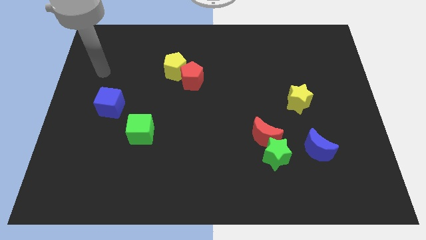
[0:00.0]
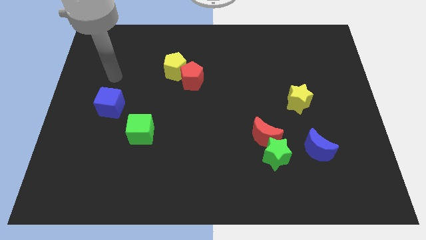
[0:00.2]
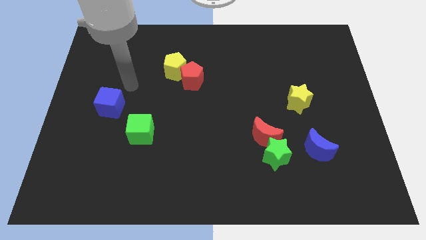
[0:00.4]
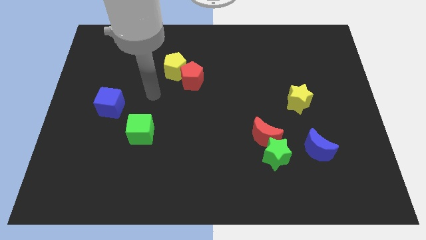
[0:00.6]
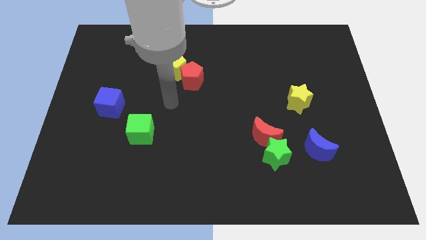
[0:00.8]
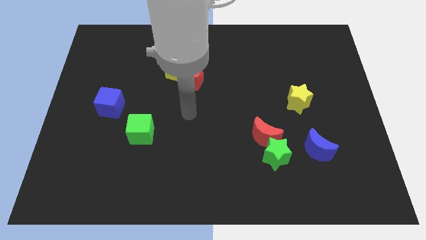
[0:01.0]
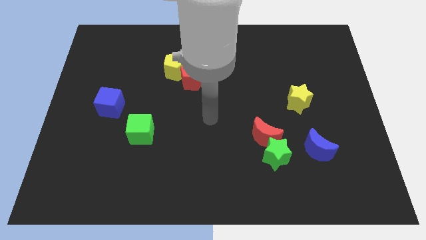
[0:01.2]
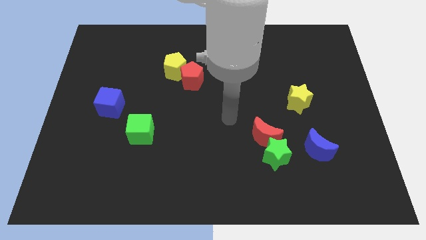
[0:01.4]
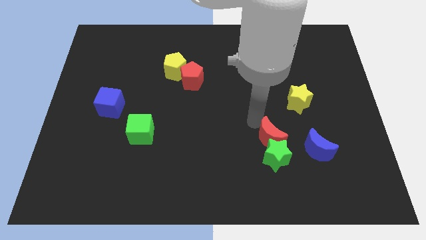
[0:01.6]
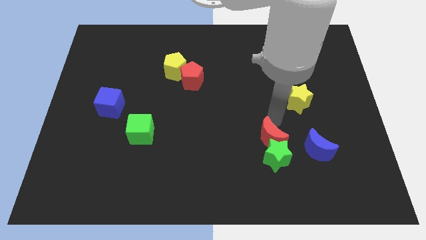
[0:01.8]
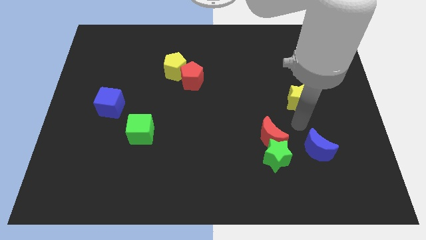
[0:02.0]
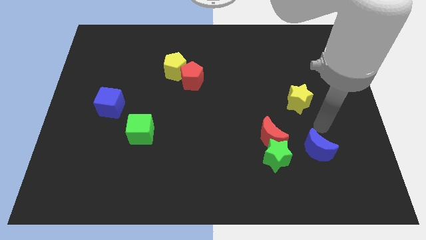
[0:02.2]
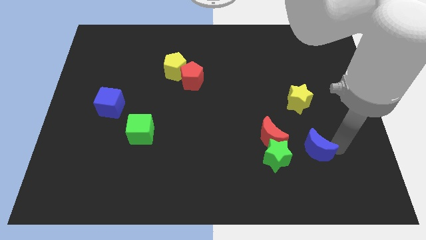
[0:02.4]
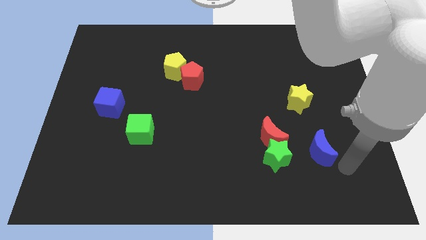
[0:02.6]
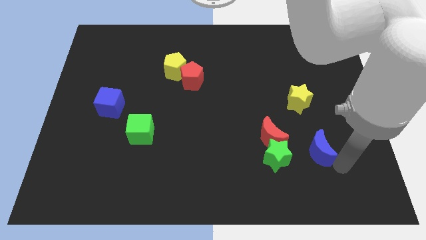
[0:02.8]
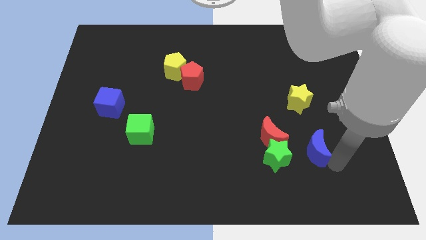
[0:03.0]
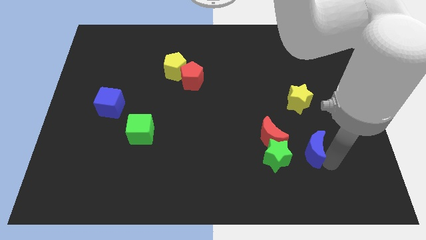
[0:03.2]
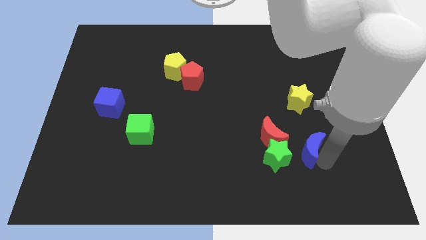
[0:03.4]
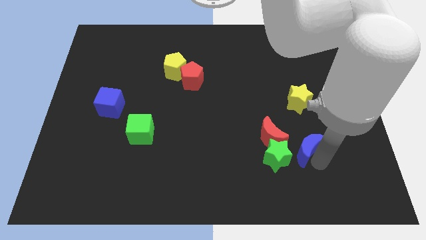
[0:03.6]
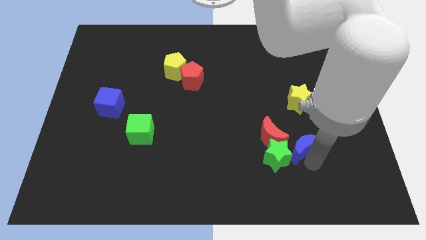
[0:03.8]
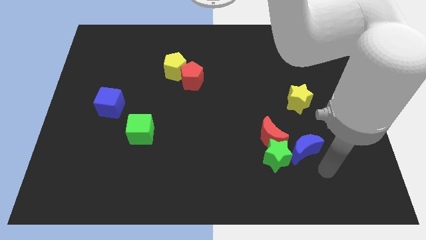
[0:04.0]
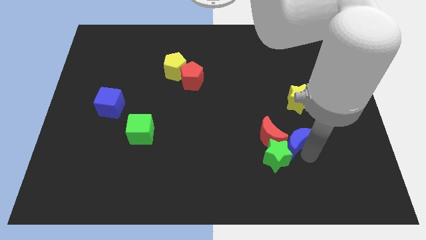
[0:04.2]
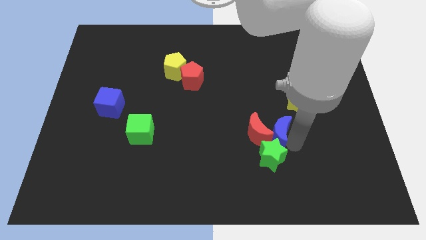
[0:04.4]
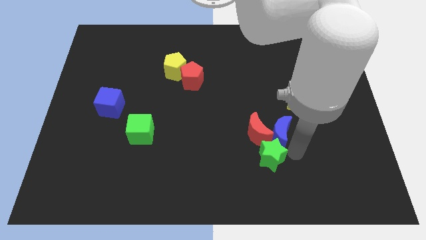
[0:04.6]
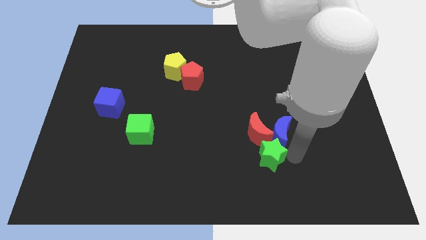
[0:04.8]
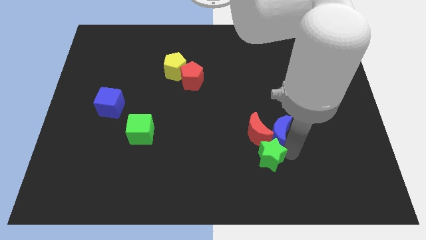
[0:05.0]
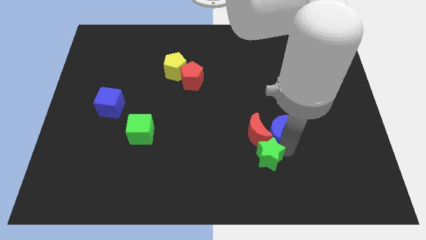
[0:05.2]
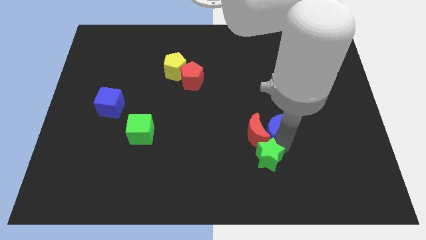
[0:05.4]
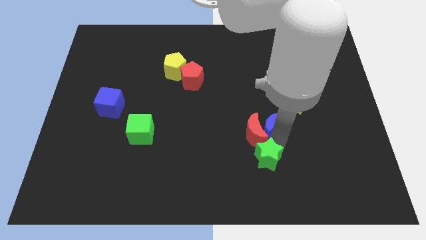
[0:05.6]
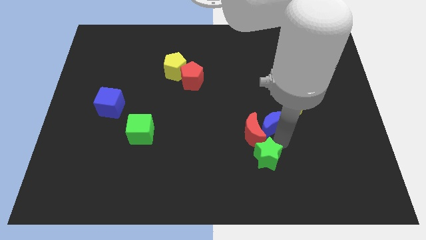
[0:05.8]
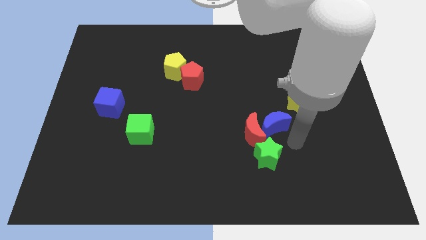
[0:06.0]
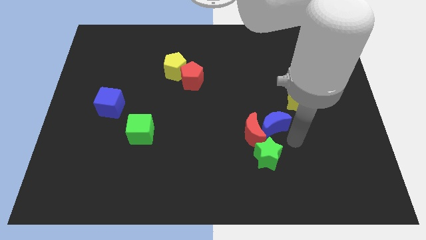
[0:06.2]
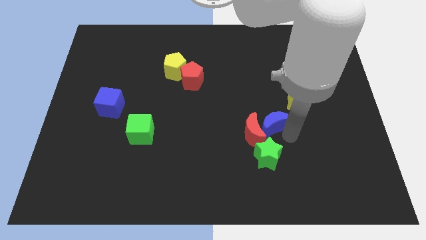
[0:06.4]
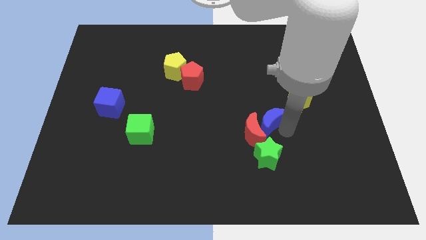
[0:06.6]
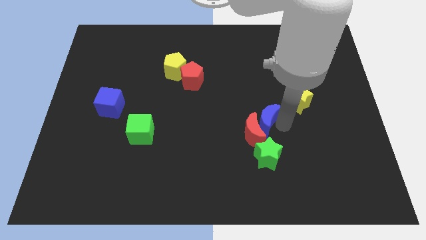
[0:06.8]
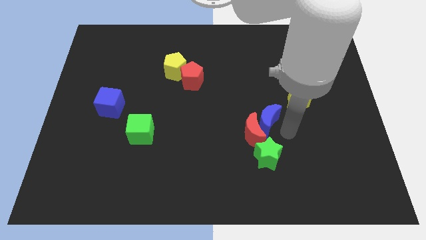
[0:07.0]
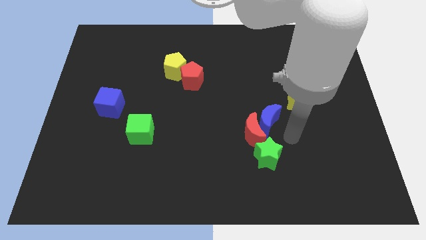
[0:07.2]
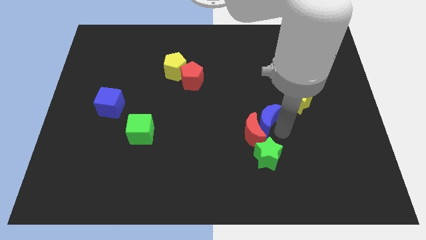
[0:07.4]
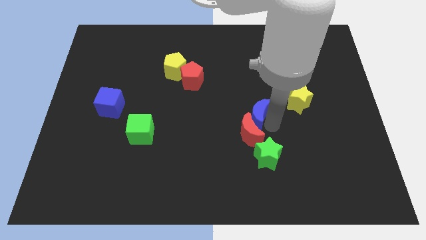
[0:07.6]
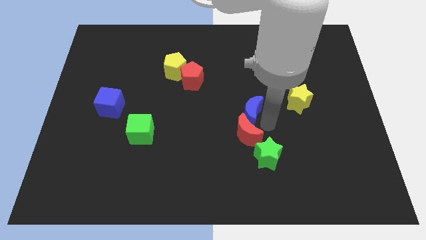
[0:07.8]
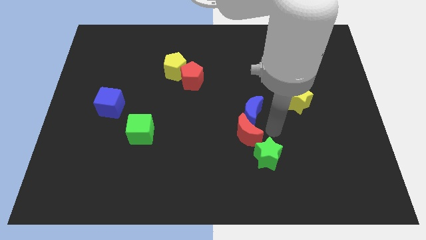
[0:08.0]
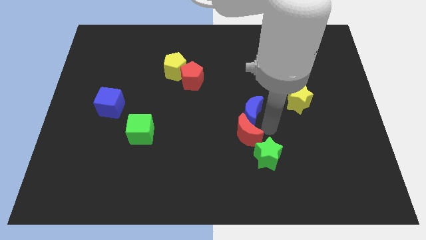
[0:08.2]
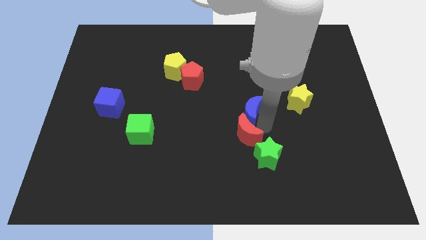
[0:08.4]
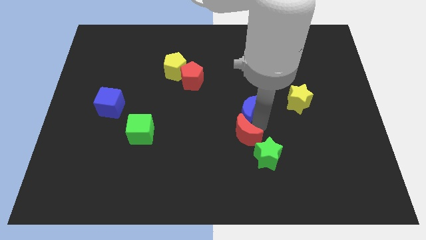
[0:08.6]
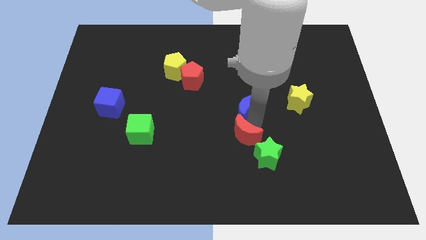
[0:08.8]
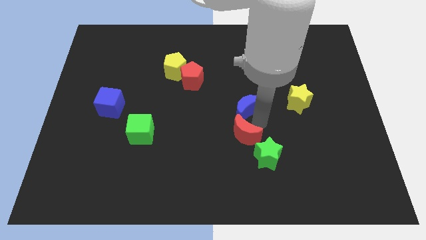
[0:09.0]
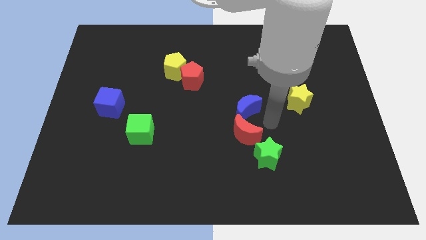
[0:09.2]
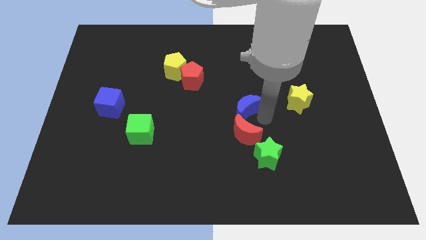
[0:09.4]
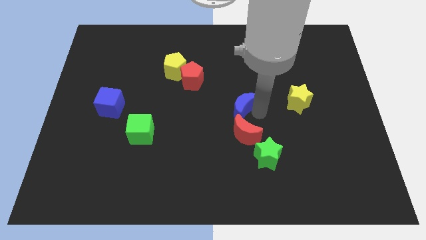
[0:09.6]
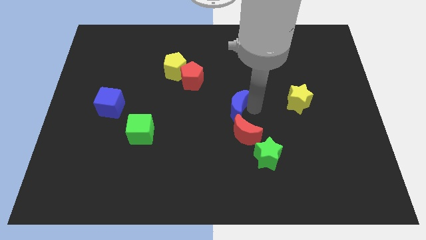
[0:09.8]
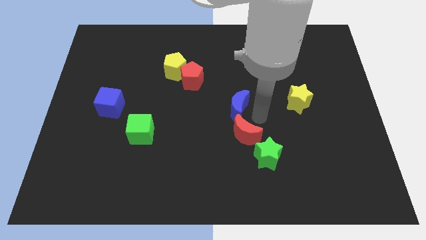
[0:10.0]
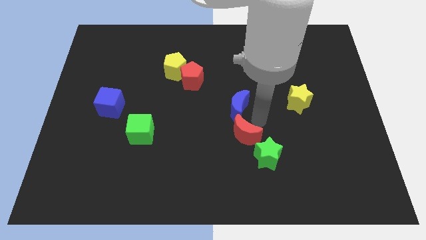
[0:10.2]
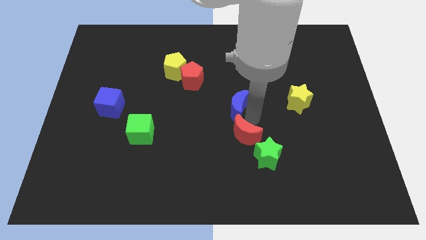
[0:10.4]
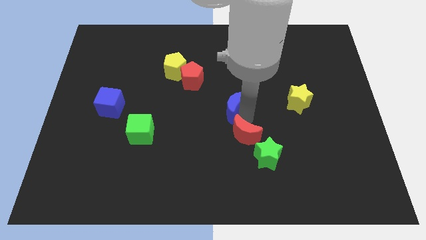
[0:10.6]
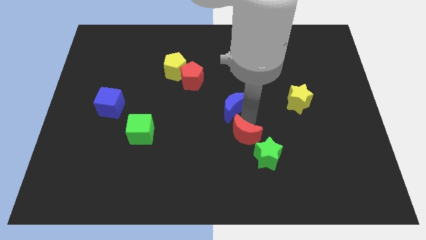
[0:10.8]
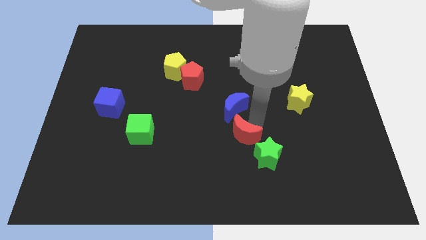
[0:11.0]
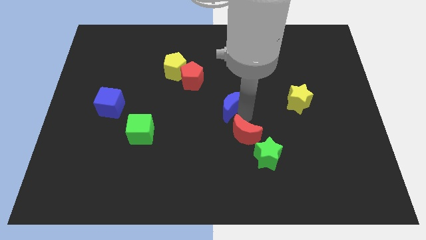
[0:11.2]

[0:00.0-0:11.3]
move the blue moon to the bottom right of the red pentagon

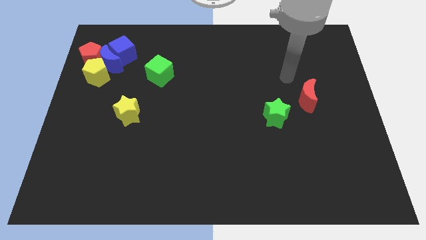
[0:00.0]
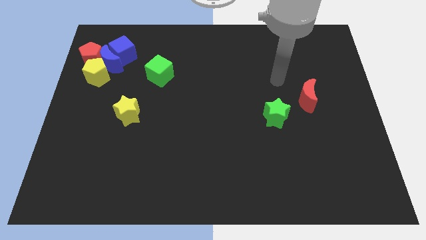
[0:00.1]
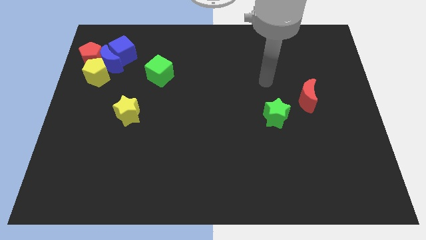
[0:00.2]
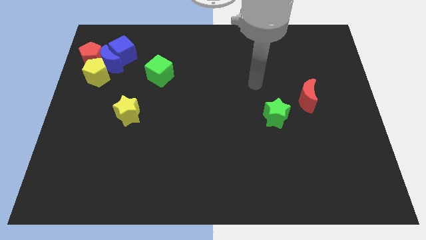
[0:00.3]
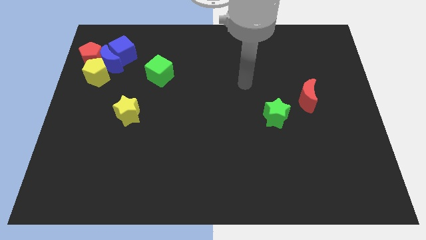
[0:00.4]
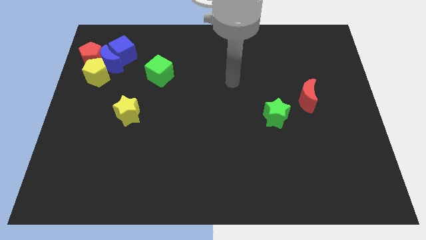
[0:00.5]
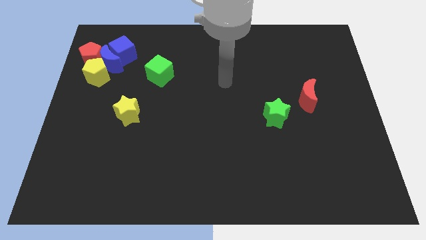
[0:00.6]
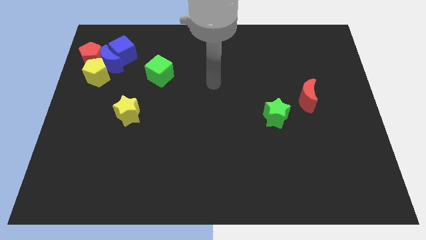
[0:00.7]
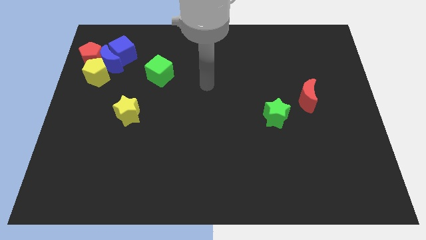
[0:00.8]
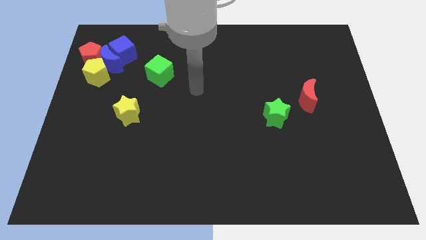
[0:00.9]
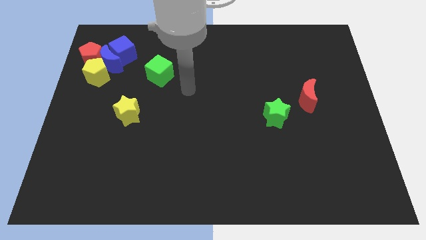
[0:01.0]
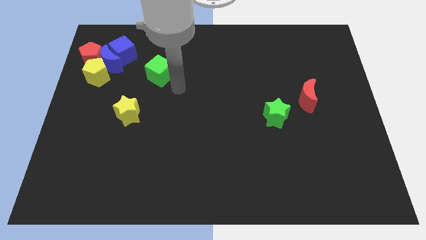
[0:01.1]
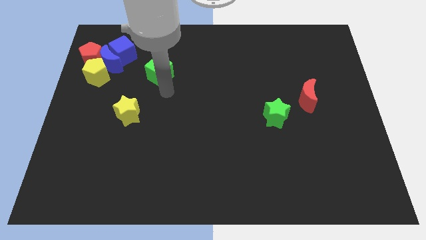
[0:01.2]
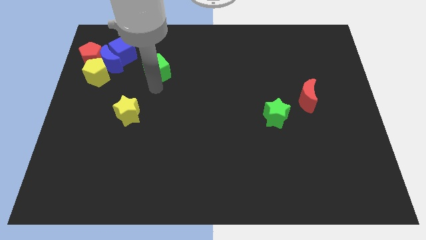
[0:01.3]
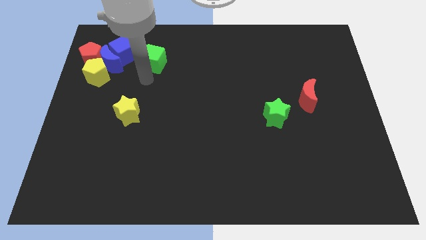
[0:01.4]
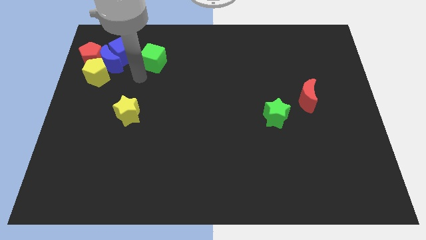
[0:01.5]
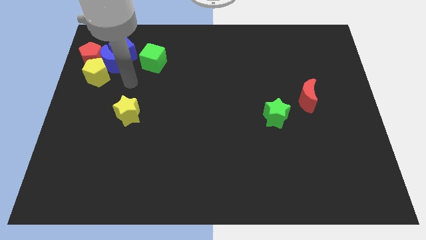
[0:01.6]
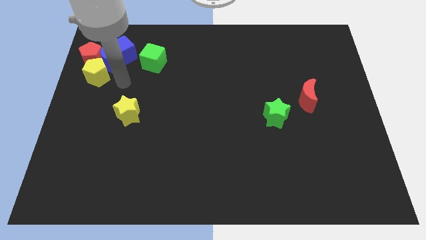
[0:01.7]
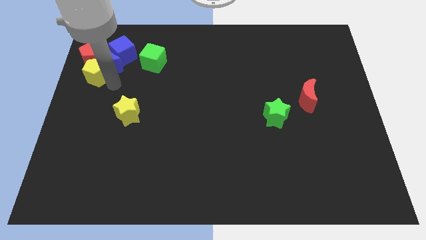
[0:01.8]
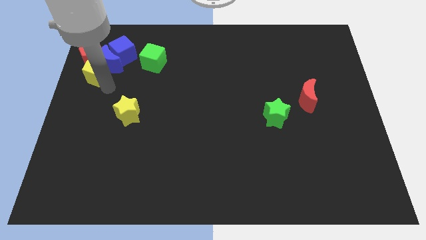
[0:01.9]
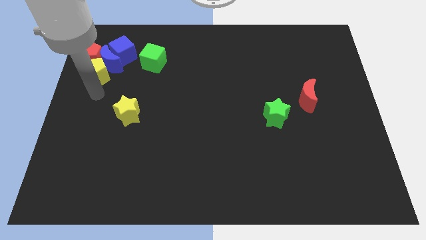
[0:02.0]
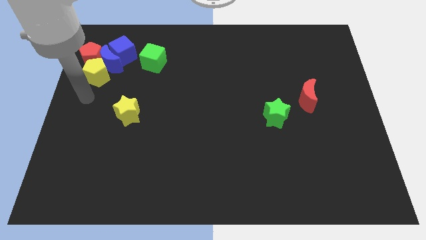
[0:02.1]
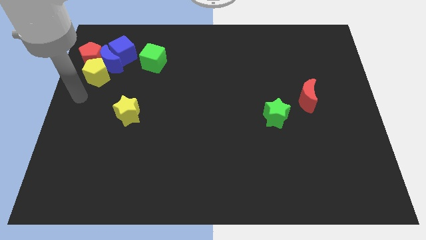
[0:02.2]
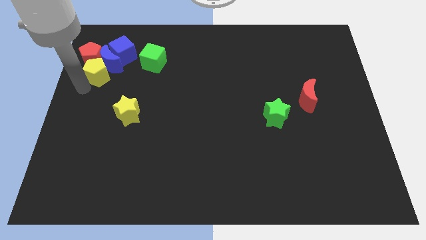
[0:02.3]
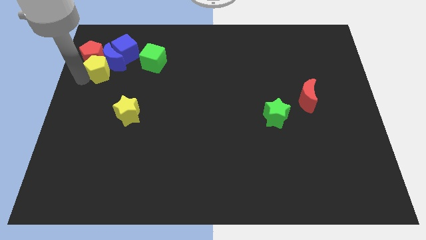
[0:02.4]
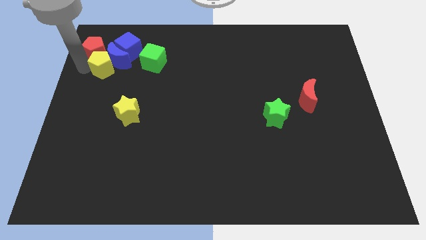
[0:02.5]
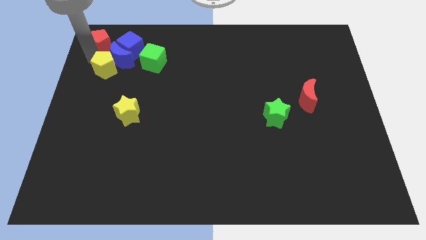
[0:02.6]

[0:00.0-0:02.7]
push the blue moon to the bottom right of the blue cube
